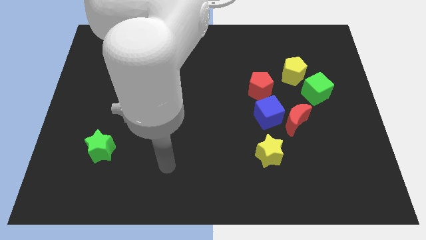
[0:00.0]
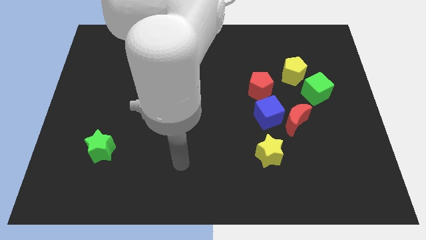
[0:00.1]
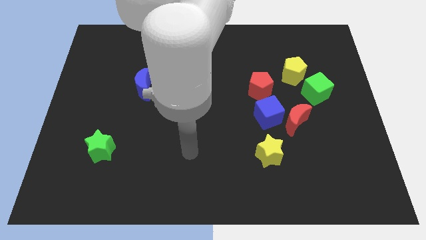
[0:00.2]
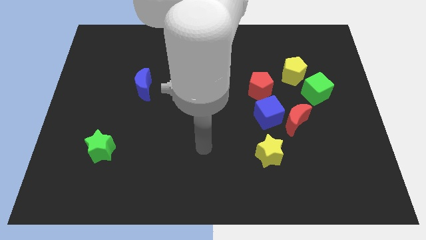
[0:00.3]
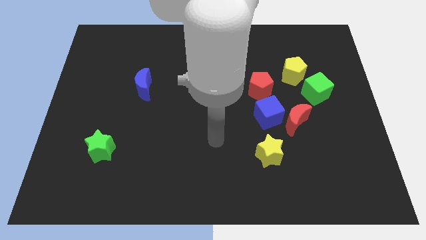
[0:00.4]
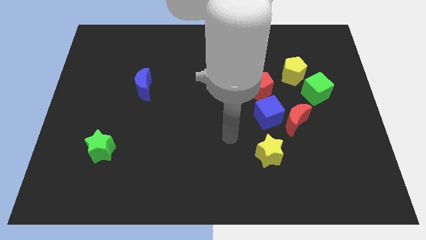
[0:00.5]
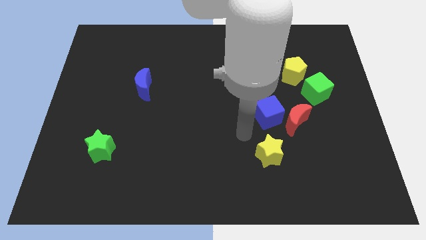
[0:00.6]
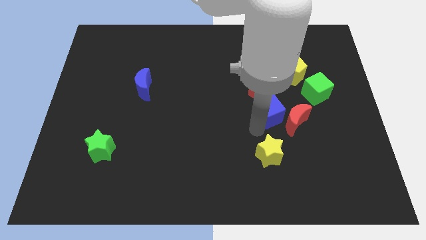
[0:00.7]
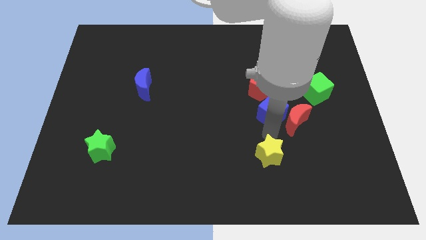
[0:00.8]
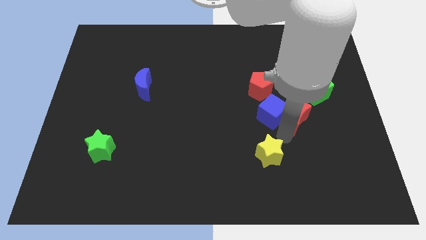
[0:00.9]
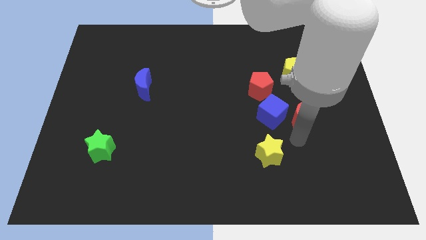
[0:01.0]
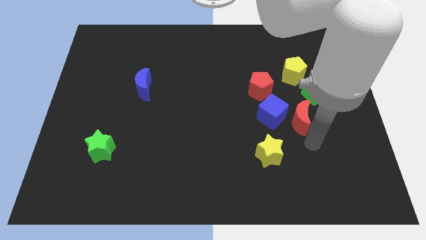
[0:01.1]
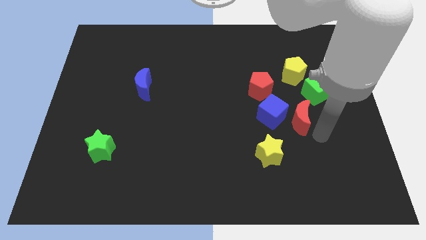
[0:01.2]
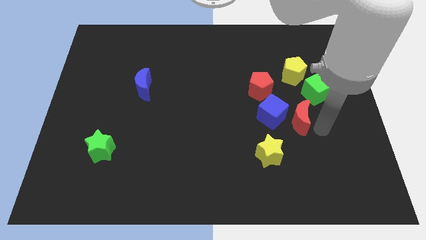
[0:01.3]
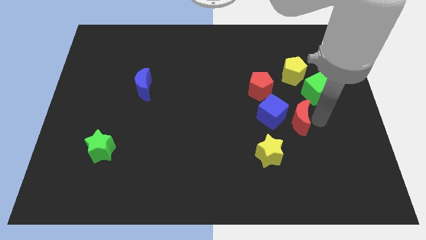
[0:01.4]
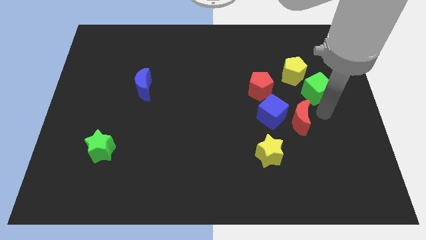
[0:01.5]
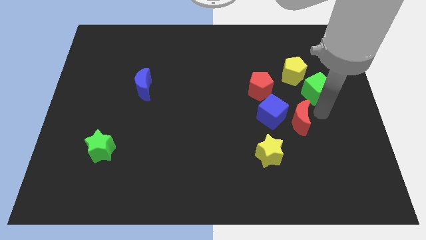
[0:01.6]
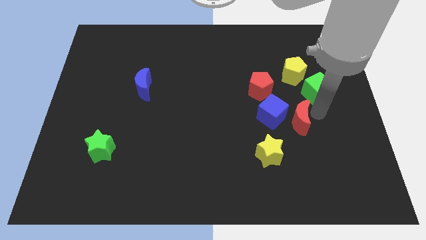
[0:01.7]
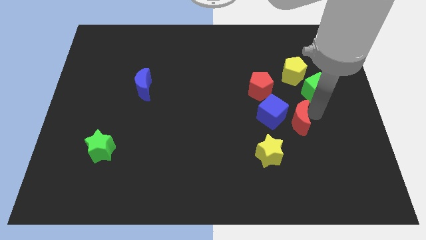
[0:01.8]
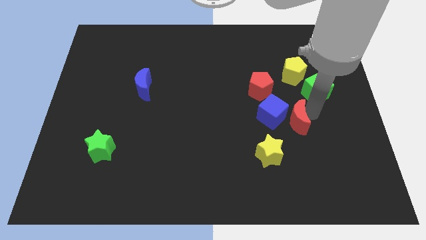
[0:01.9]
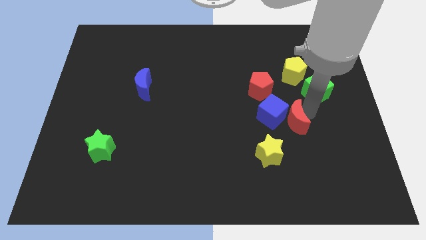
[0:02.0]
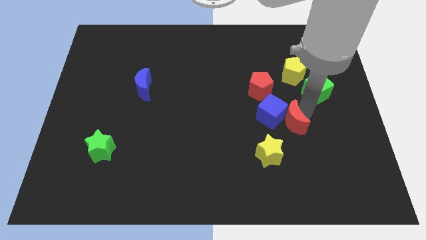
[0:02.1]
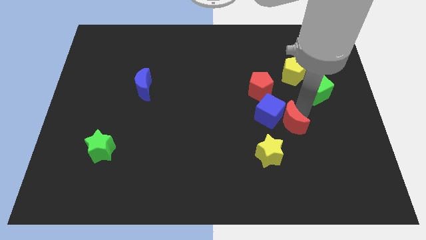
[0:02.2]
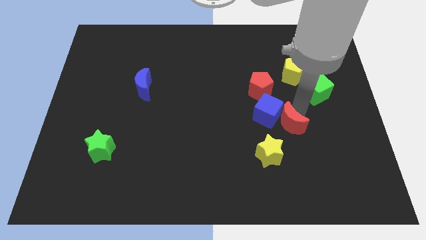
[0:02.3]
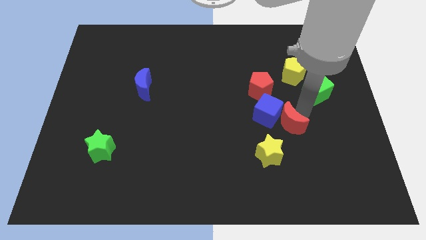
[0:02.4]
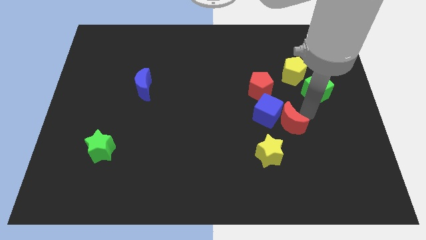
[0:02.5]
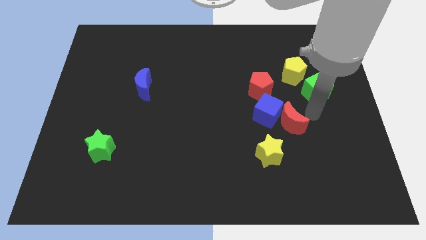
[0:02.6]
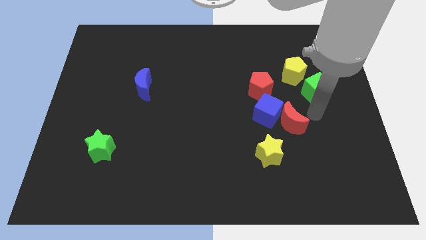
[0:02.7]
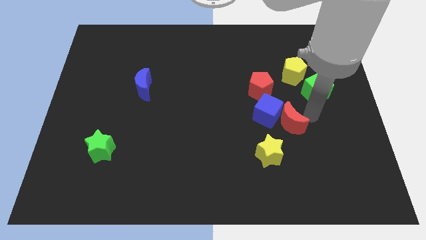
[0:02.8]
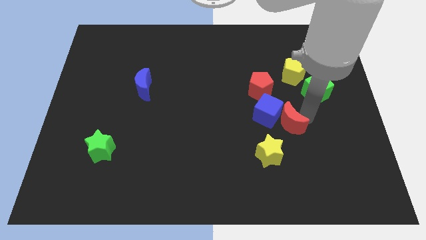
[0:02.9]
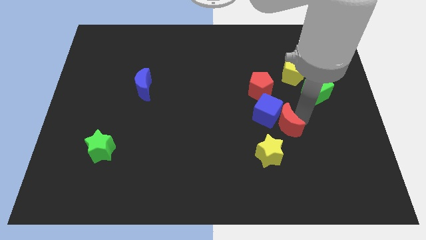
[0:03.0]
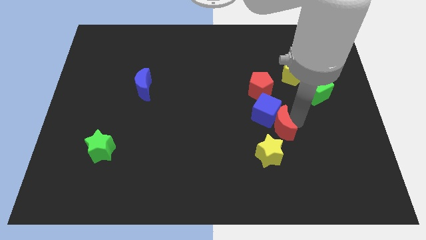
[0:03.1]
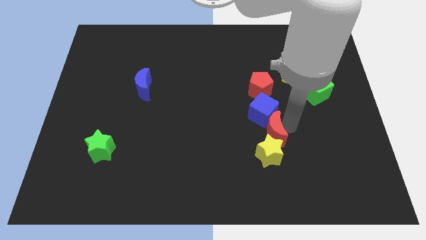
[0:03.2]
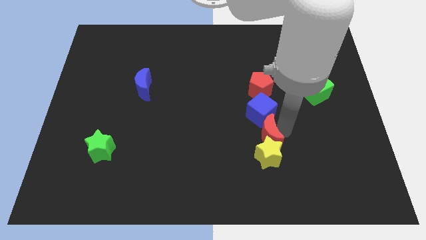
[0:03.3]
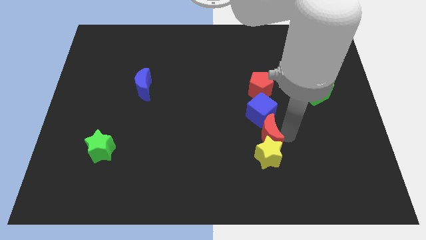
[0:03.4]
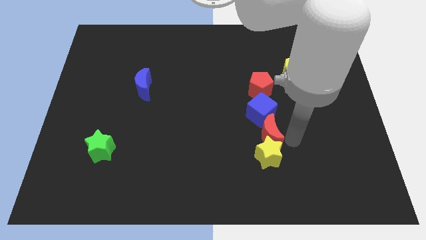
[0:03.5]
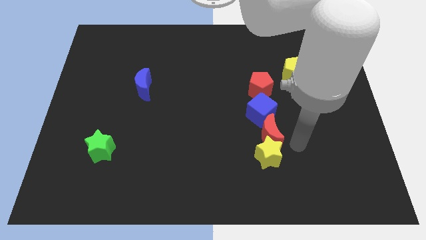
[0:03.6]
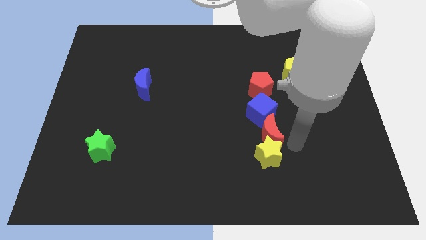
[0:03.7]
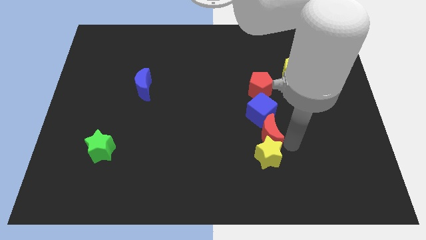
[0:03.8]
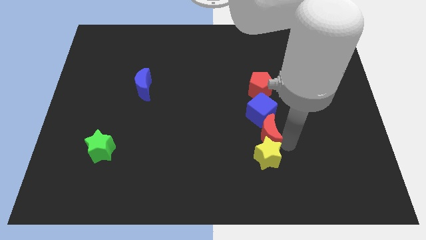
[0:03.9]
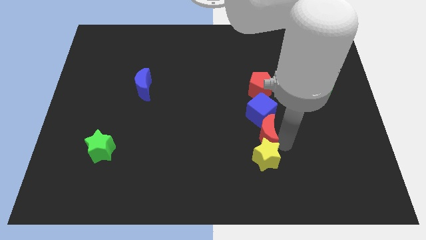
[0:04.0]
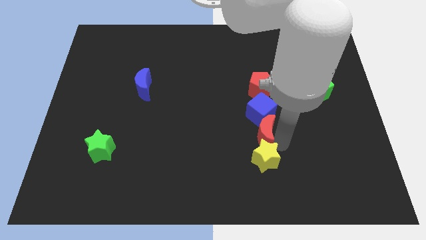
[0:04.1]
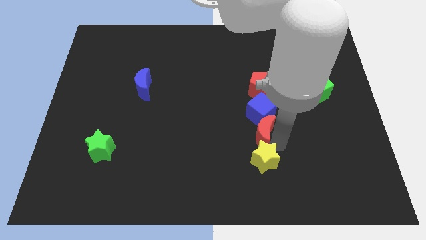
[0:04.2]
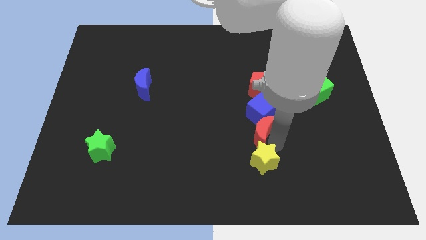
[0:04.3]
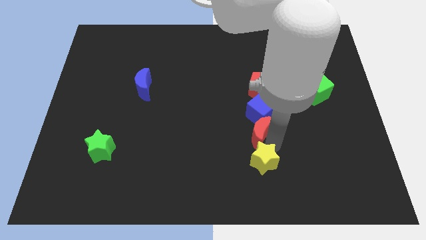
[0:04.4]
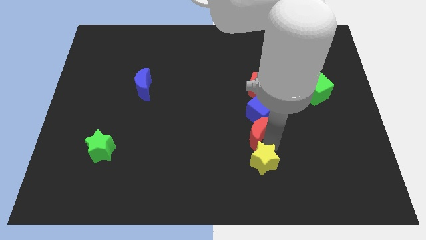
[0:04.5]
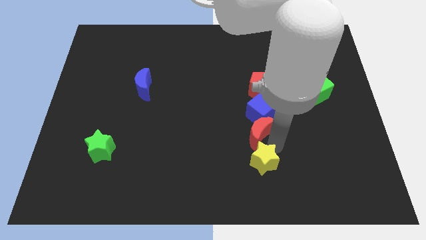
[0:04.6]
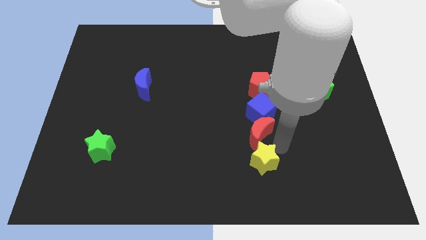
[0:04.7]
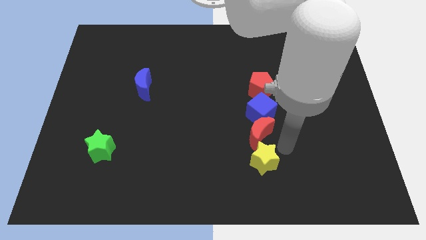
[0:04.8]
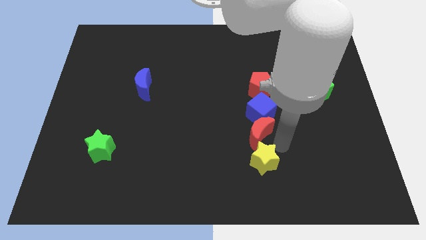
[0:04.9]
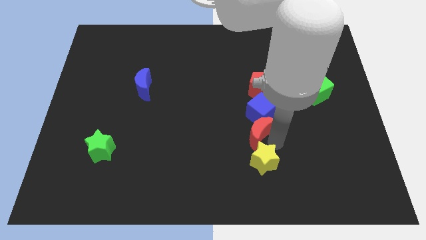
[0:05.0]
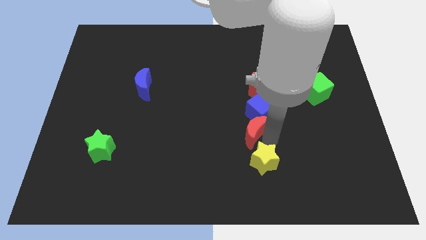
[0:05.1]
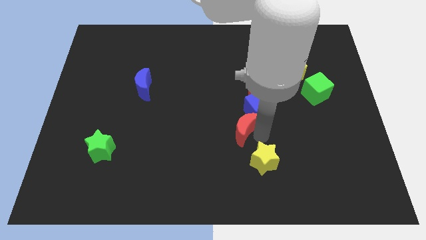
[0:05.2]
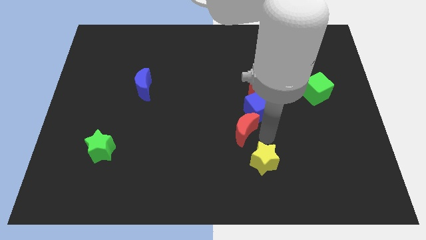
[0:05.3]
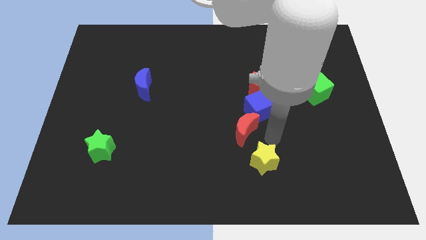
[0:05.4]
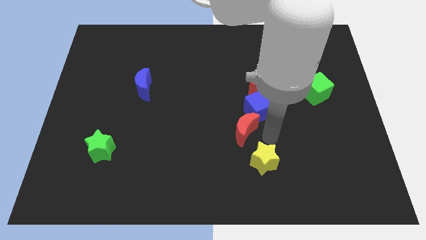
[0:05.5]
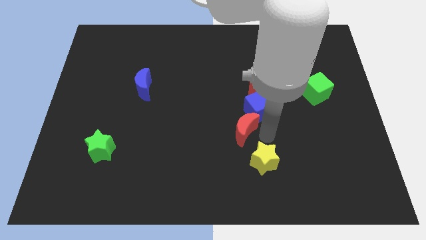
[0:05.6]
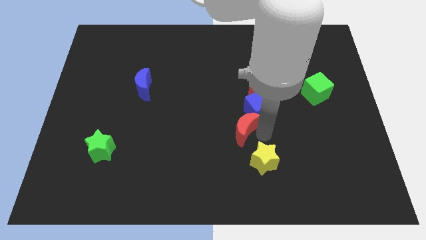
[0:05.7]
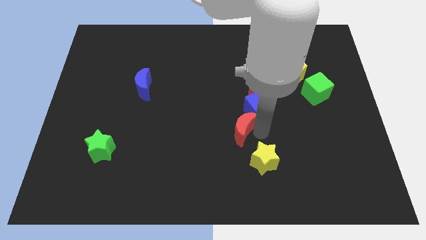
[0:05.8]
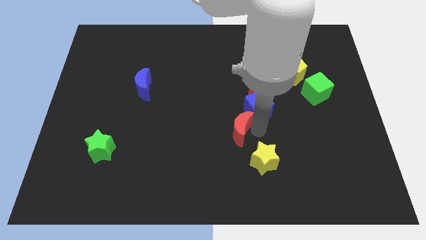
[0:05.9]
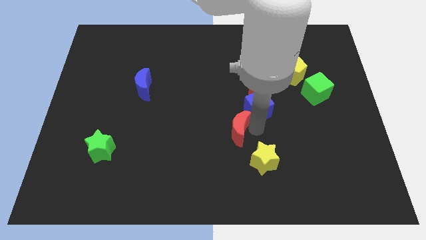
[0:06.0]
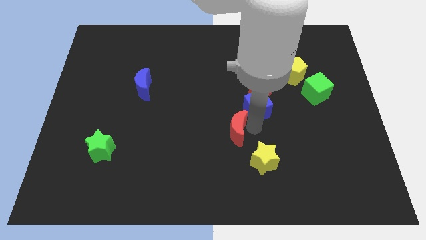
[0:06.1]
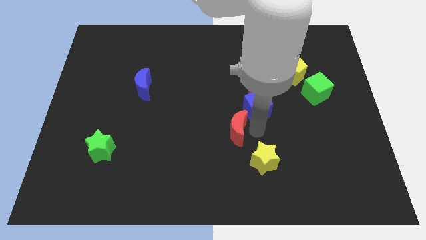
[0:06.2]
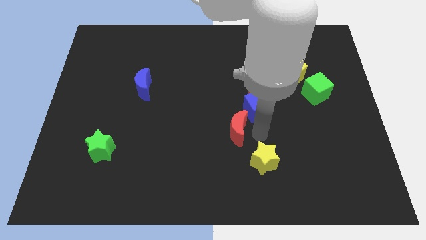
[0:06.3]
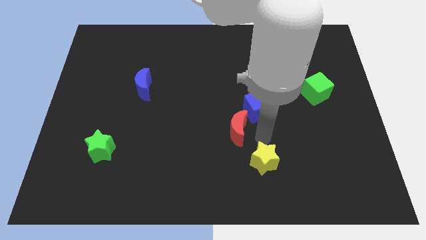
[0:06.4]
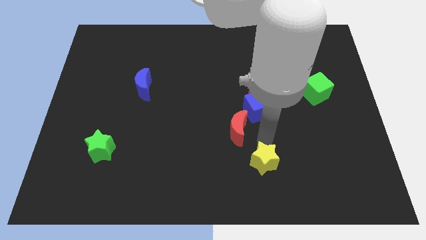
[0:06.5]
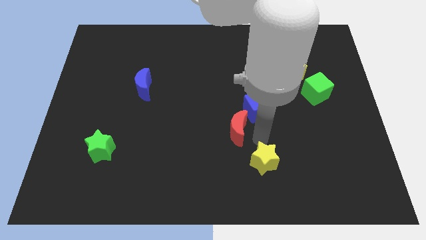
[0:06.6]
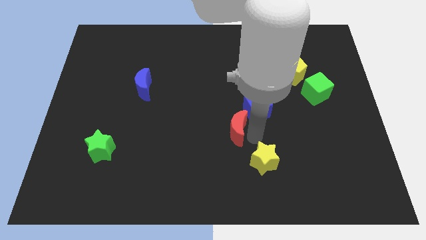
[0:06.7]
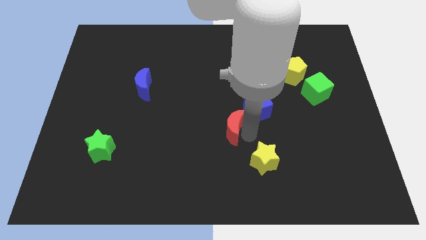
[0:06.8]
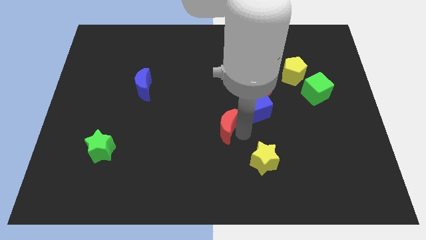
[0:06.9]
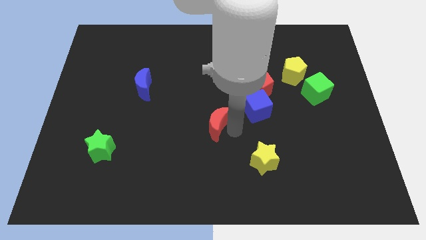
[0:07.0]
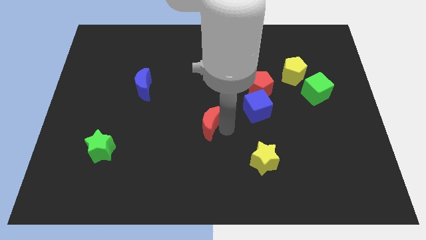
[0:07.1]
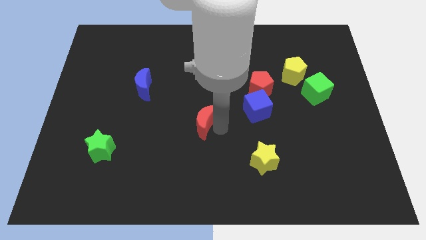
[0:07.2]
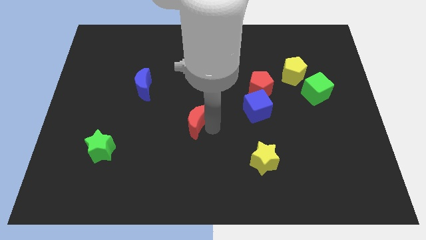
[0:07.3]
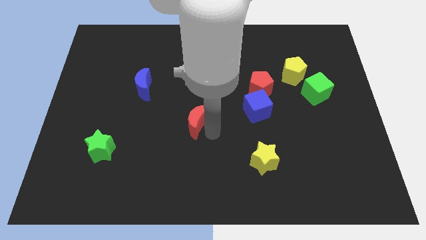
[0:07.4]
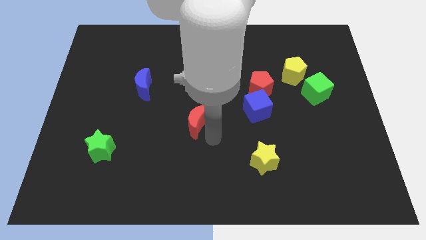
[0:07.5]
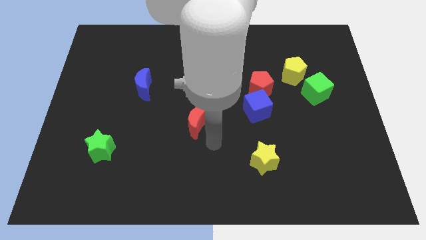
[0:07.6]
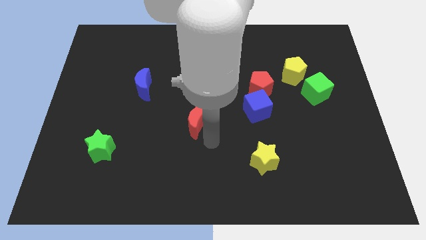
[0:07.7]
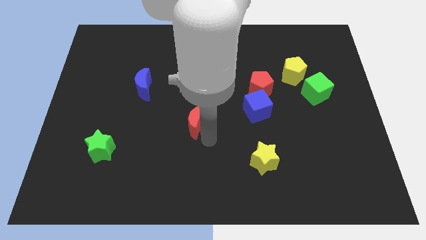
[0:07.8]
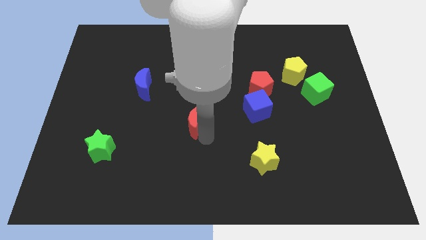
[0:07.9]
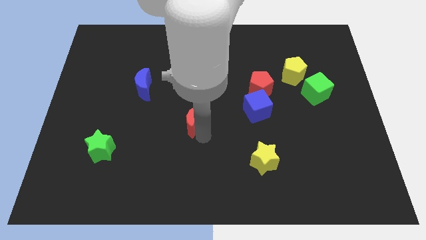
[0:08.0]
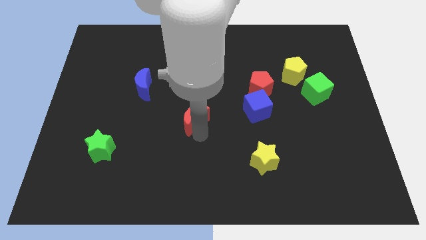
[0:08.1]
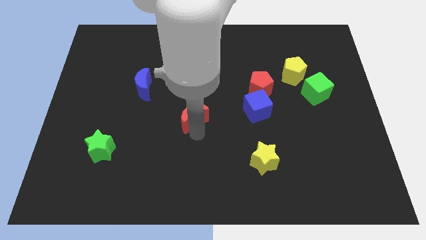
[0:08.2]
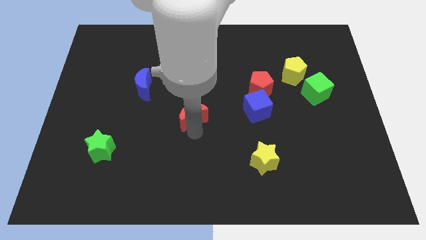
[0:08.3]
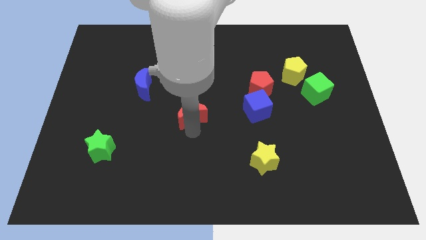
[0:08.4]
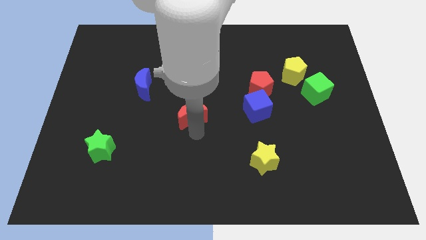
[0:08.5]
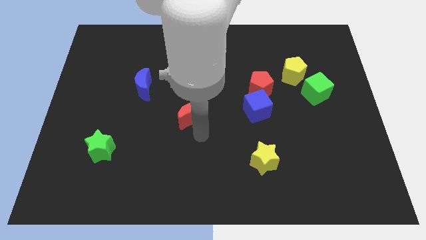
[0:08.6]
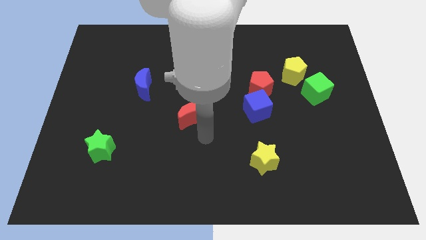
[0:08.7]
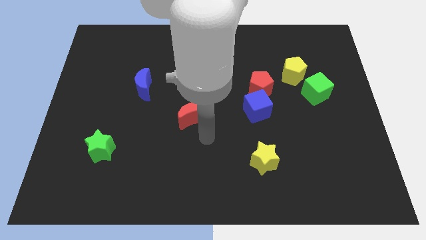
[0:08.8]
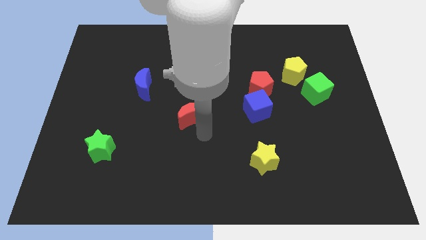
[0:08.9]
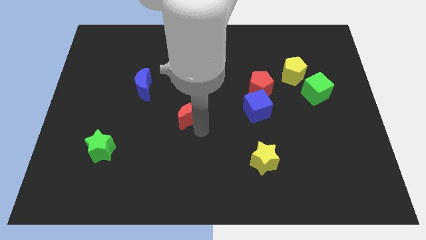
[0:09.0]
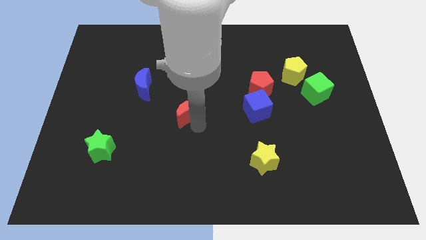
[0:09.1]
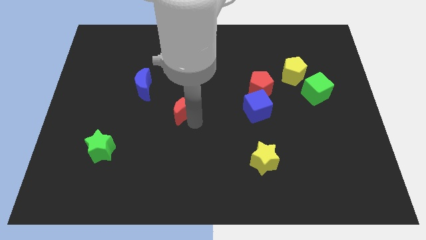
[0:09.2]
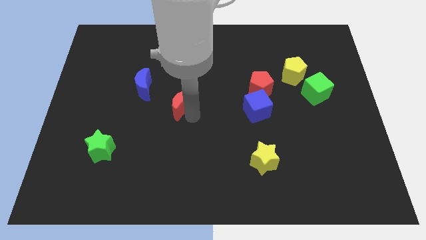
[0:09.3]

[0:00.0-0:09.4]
push the red moon diagonally down and to the right of the blue moon
